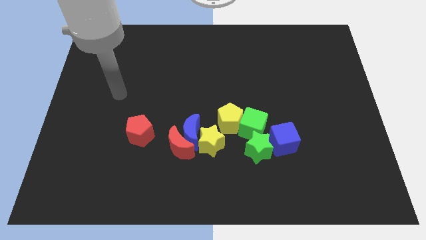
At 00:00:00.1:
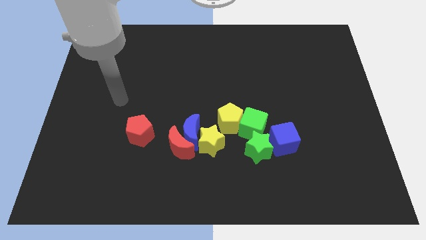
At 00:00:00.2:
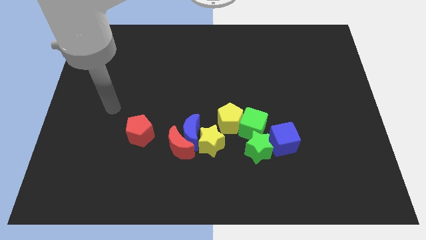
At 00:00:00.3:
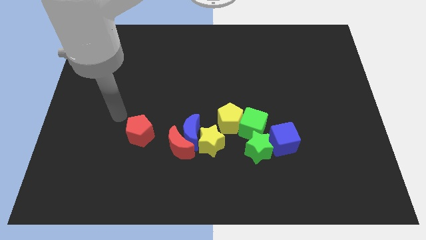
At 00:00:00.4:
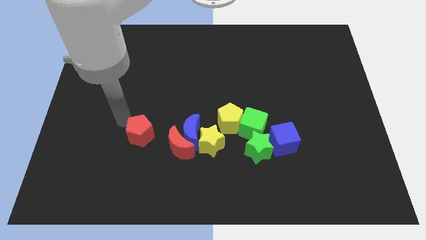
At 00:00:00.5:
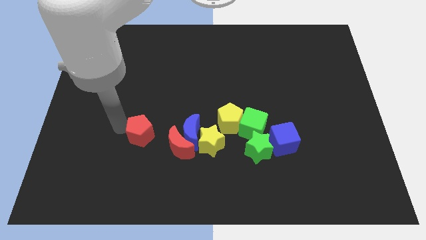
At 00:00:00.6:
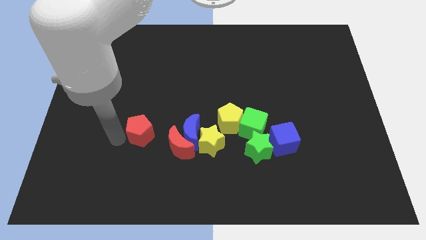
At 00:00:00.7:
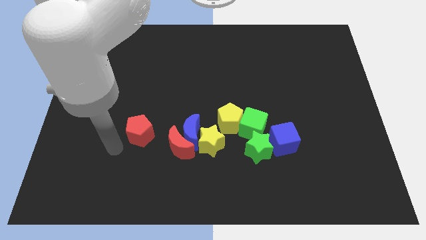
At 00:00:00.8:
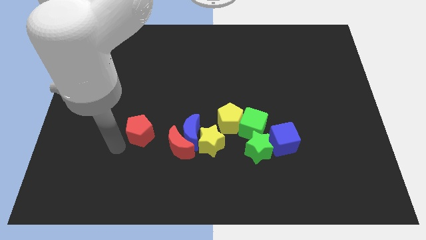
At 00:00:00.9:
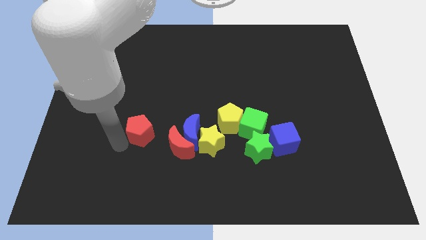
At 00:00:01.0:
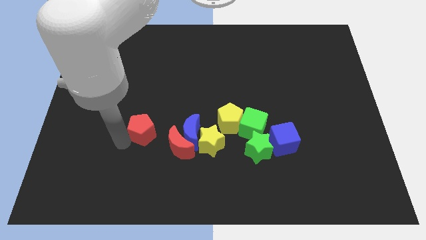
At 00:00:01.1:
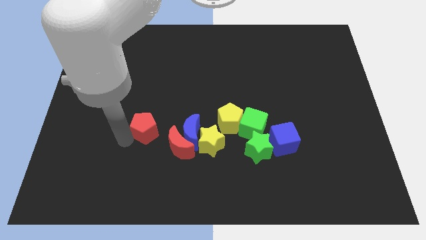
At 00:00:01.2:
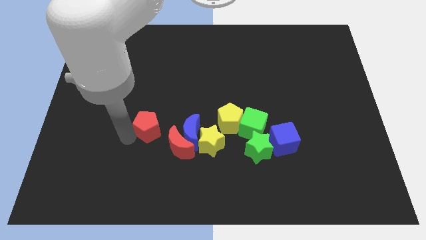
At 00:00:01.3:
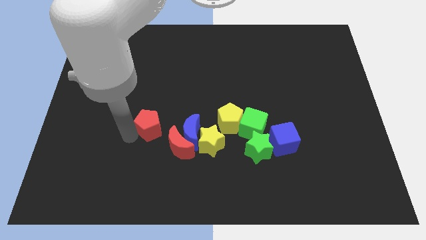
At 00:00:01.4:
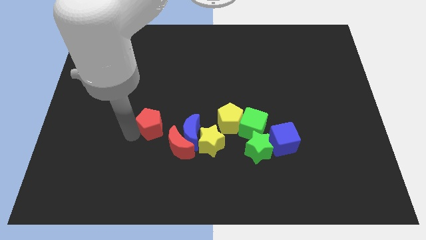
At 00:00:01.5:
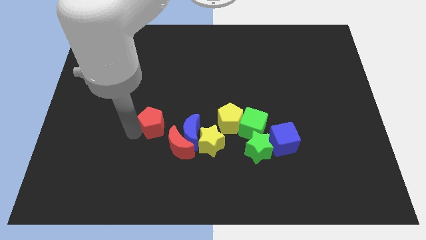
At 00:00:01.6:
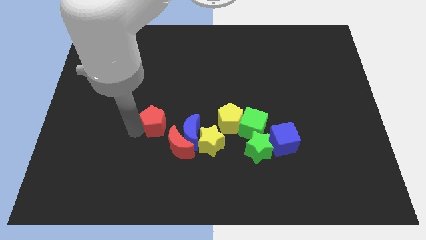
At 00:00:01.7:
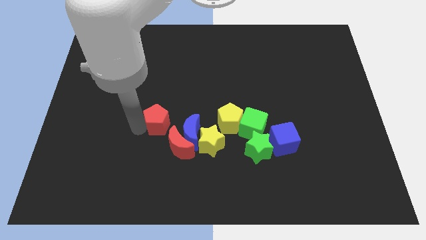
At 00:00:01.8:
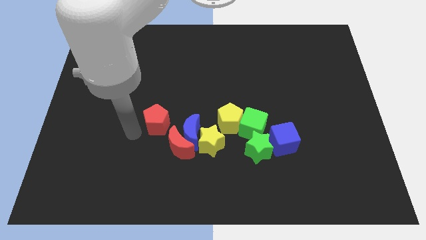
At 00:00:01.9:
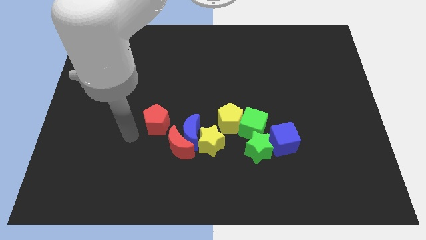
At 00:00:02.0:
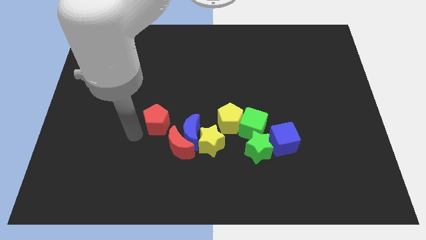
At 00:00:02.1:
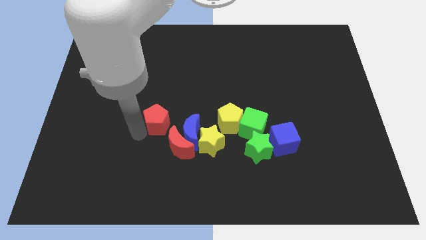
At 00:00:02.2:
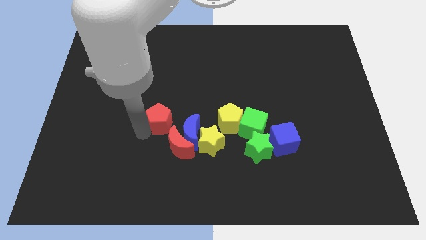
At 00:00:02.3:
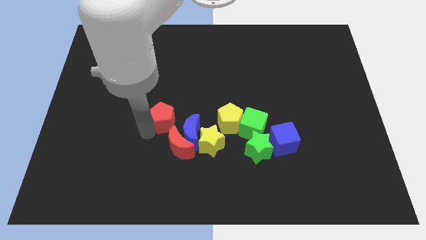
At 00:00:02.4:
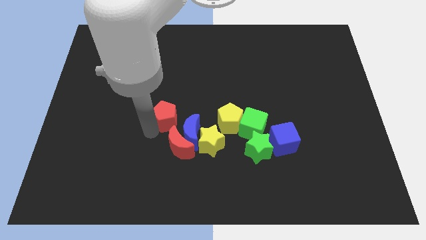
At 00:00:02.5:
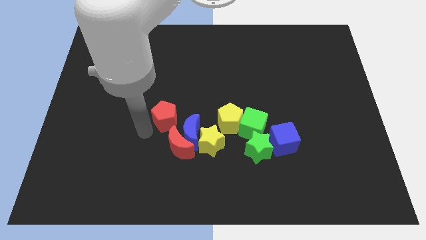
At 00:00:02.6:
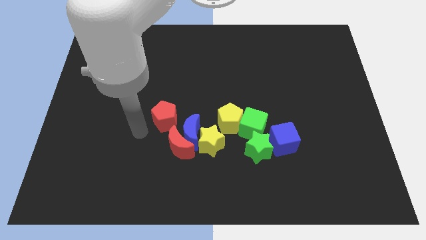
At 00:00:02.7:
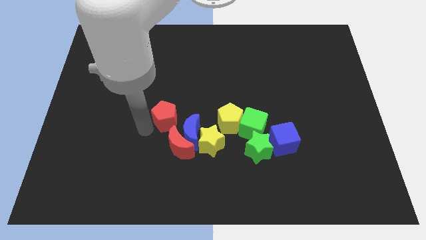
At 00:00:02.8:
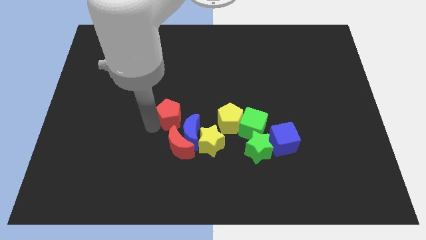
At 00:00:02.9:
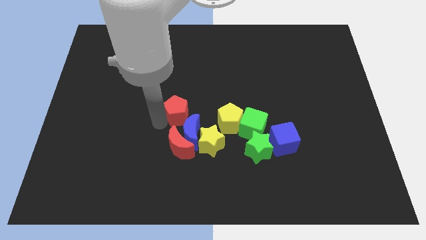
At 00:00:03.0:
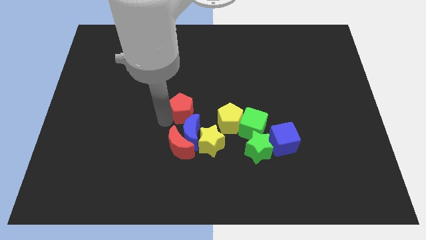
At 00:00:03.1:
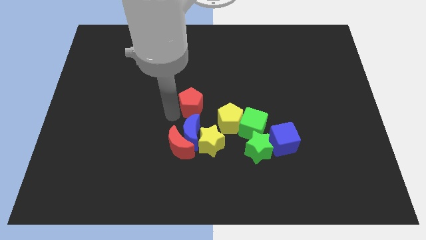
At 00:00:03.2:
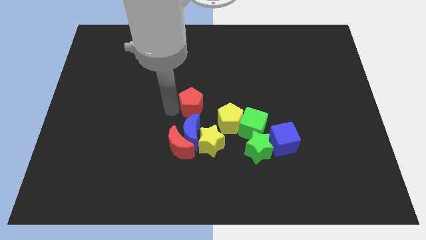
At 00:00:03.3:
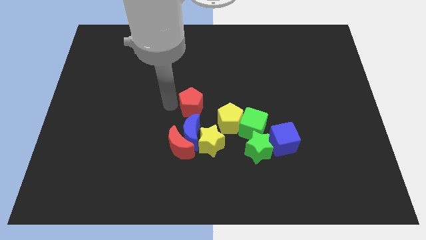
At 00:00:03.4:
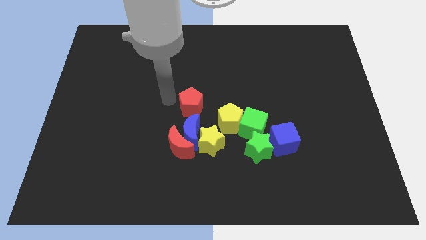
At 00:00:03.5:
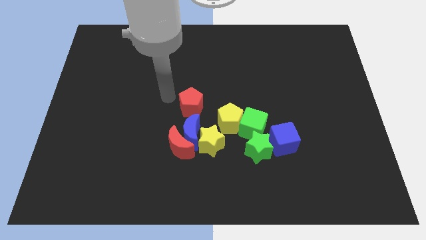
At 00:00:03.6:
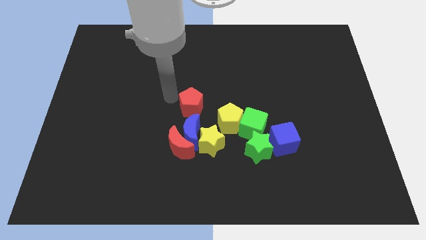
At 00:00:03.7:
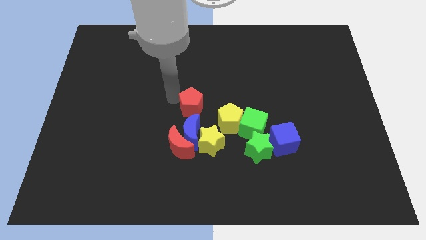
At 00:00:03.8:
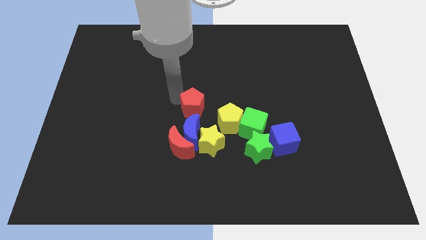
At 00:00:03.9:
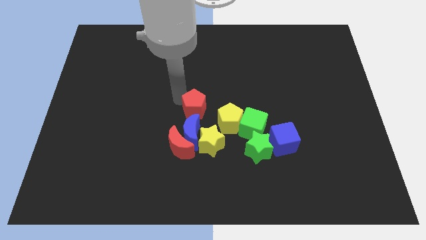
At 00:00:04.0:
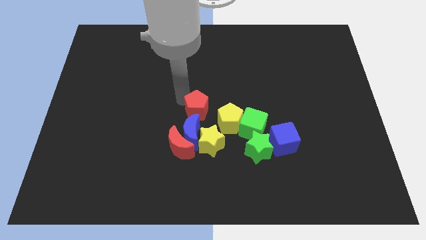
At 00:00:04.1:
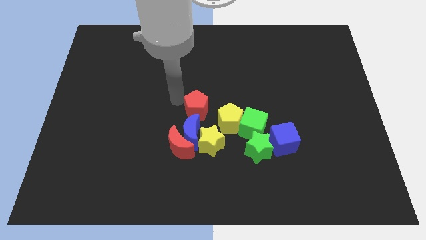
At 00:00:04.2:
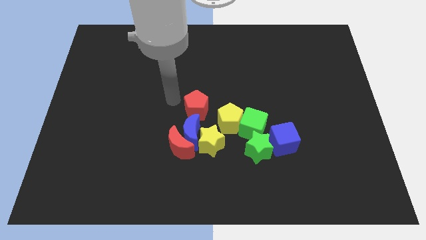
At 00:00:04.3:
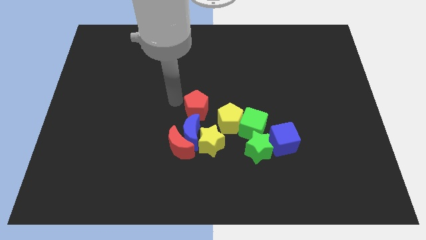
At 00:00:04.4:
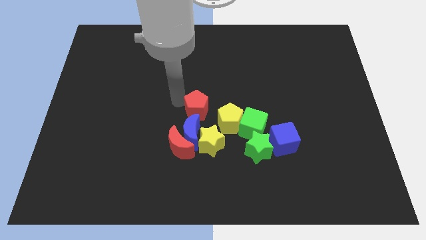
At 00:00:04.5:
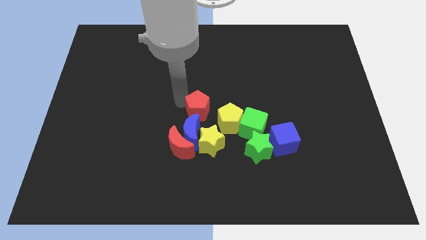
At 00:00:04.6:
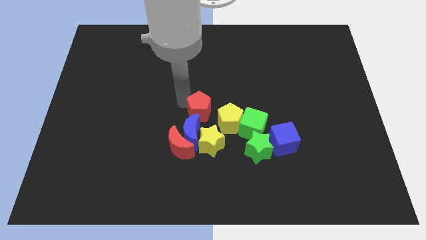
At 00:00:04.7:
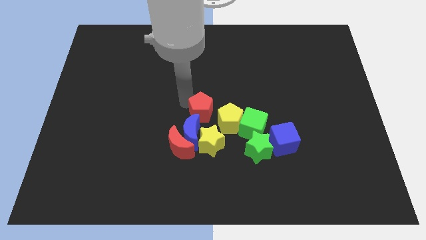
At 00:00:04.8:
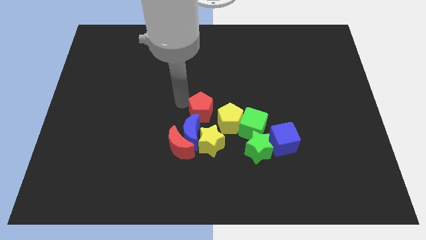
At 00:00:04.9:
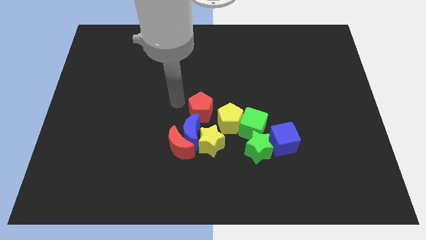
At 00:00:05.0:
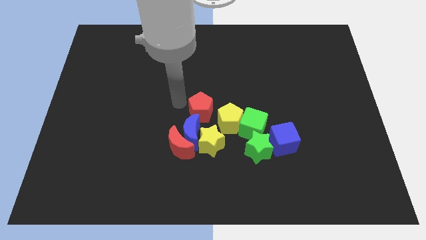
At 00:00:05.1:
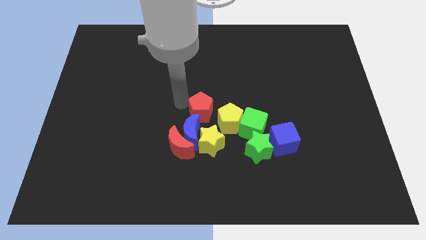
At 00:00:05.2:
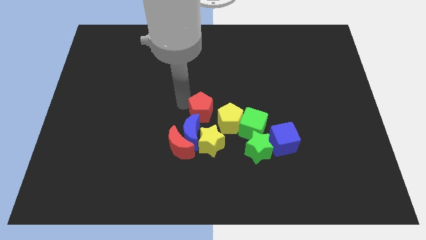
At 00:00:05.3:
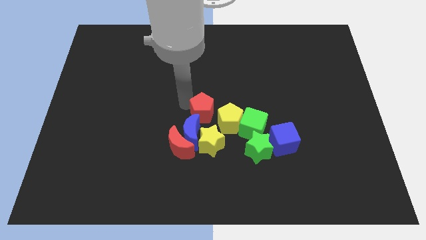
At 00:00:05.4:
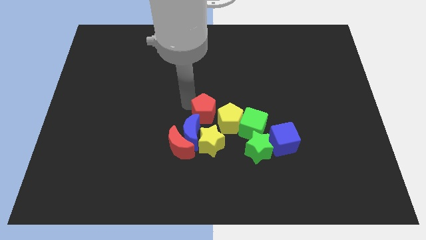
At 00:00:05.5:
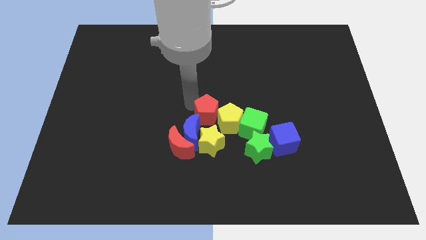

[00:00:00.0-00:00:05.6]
move the red pentagon close to the yellow pentagon

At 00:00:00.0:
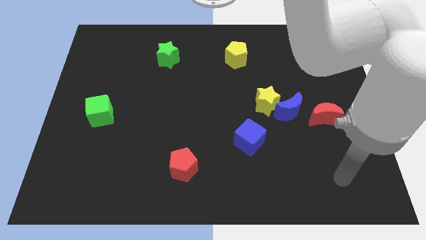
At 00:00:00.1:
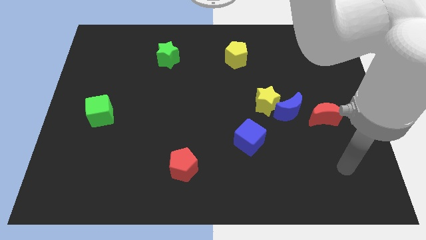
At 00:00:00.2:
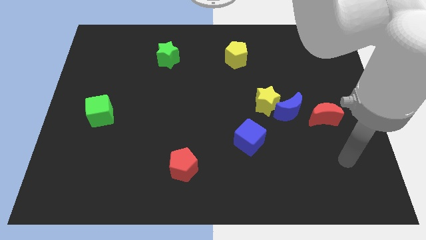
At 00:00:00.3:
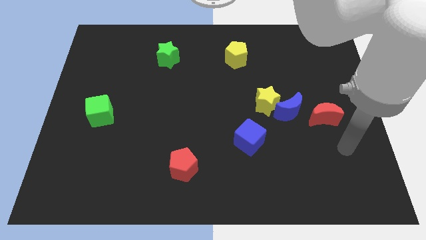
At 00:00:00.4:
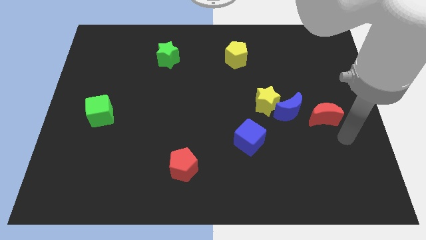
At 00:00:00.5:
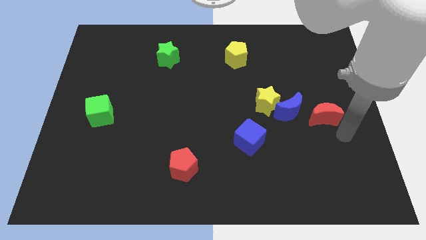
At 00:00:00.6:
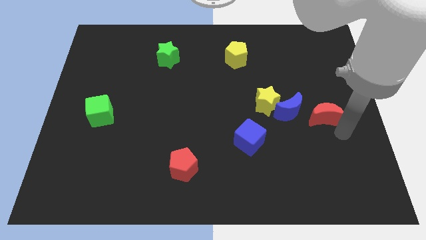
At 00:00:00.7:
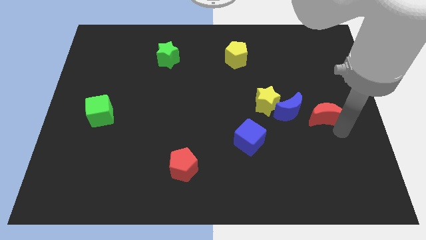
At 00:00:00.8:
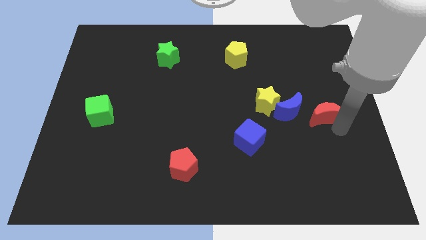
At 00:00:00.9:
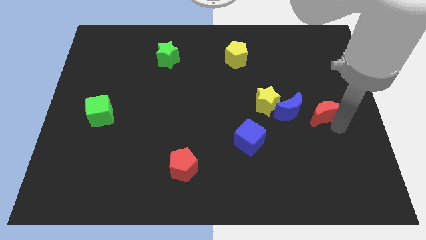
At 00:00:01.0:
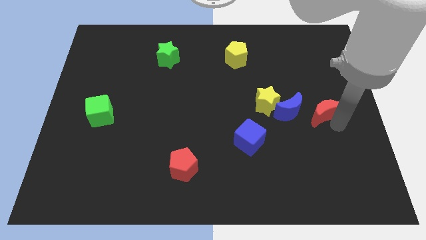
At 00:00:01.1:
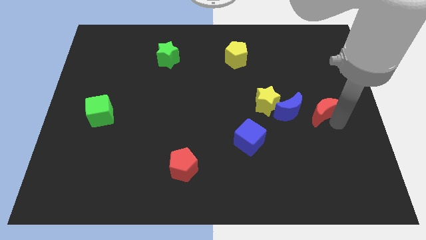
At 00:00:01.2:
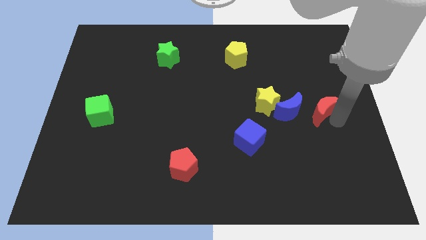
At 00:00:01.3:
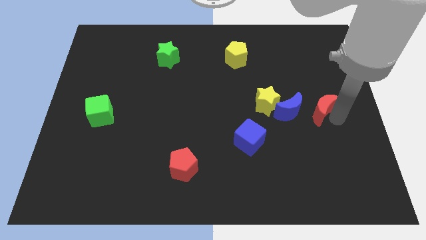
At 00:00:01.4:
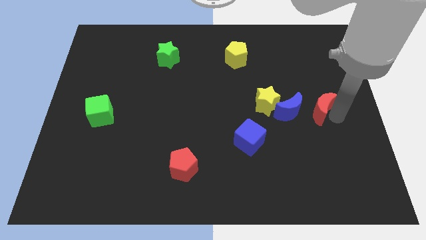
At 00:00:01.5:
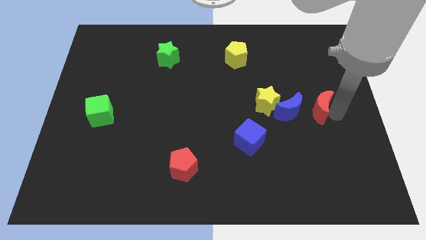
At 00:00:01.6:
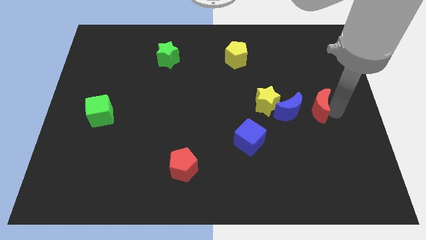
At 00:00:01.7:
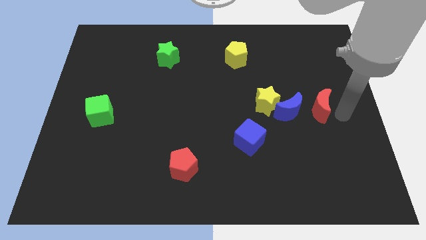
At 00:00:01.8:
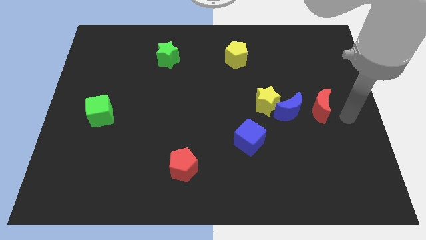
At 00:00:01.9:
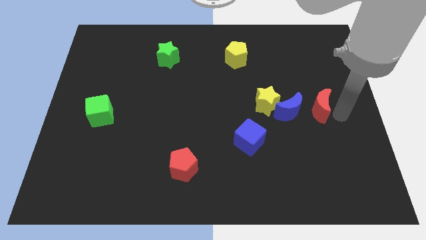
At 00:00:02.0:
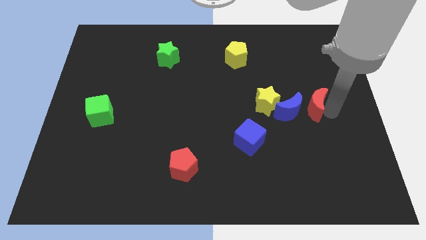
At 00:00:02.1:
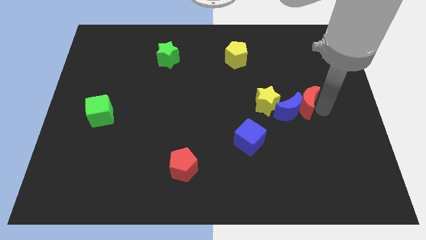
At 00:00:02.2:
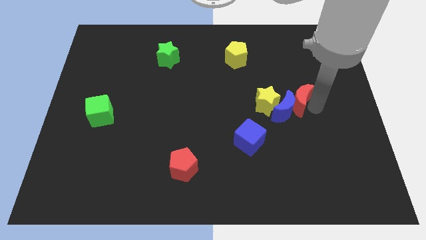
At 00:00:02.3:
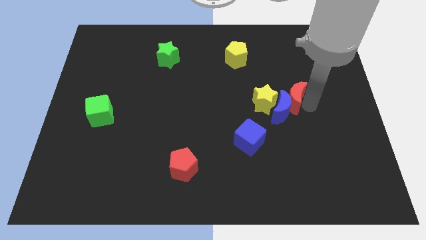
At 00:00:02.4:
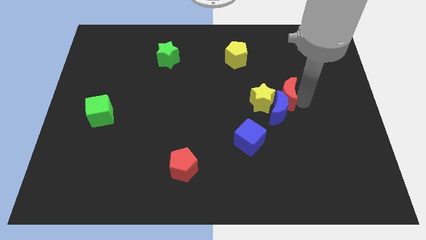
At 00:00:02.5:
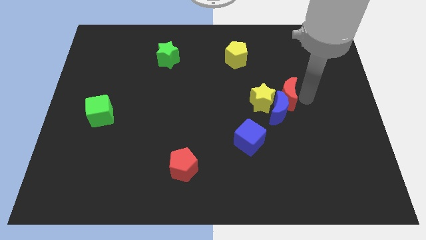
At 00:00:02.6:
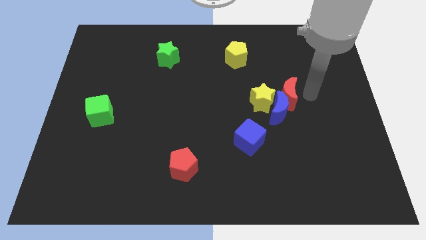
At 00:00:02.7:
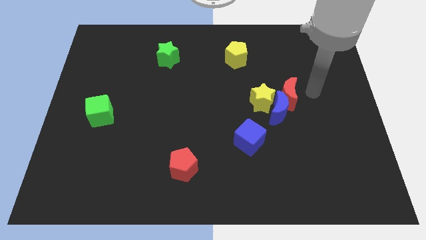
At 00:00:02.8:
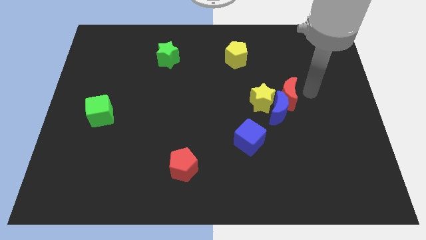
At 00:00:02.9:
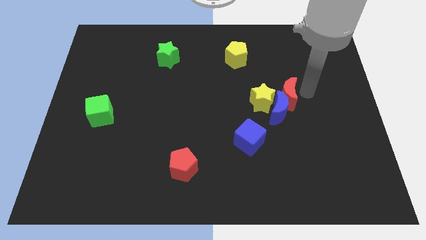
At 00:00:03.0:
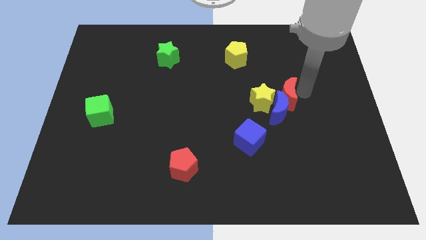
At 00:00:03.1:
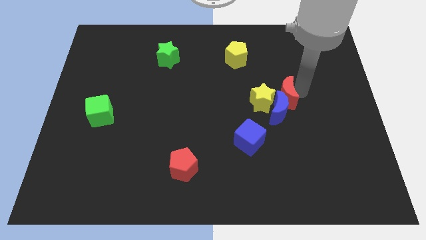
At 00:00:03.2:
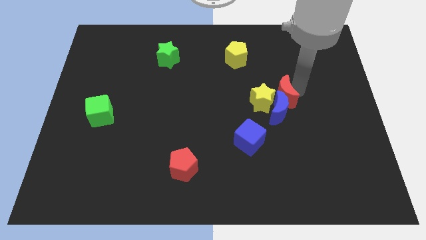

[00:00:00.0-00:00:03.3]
put the red moon towards the yellow star
